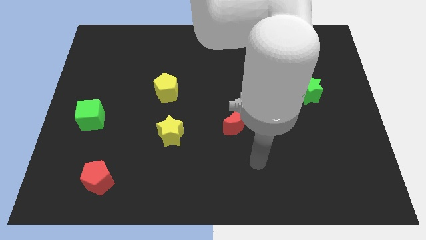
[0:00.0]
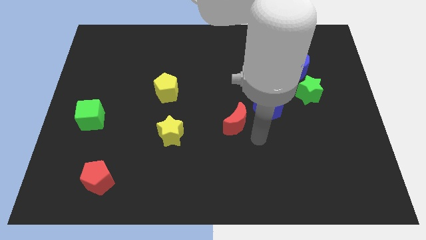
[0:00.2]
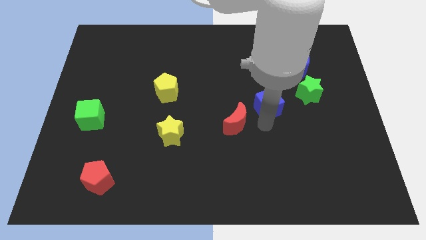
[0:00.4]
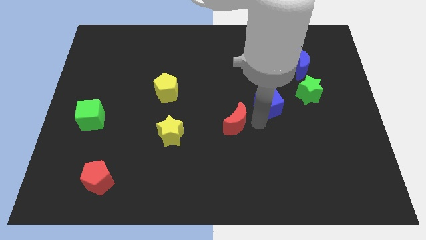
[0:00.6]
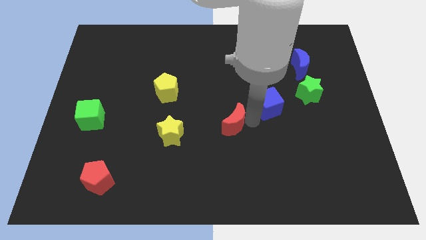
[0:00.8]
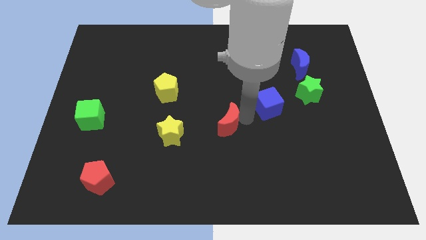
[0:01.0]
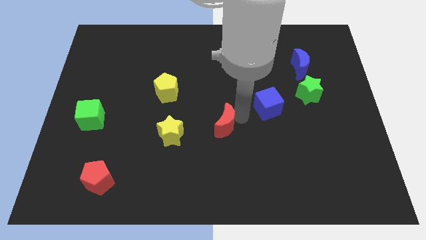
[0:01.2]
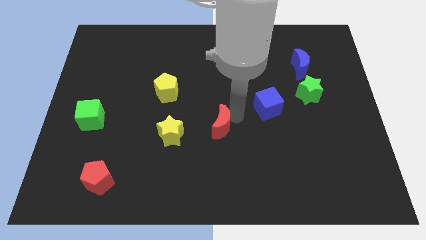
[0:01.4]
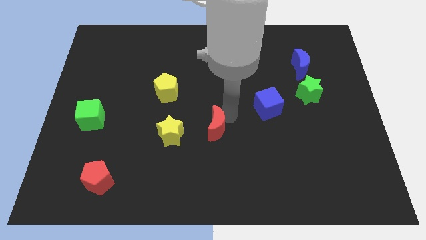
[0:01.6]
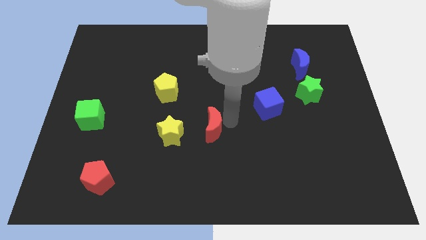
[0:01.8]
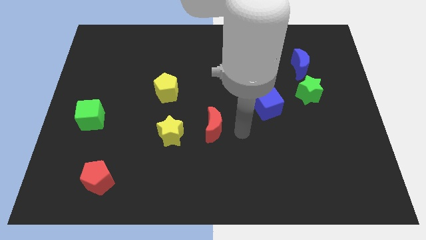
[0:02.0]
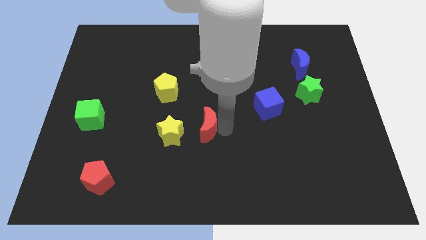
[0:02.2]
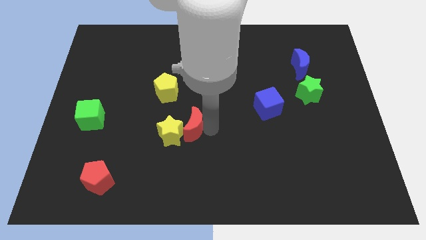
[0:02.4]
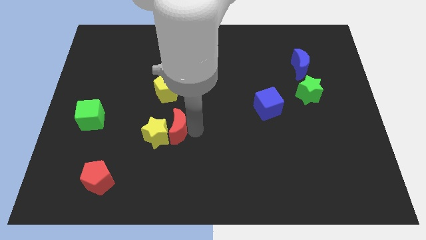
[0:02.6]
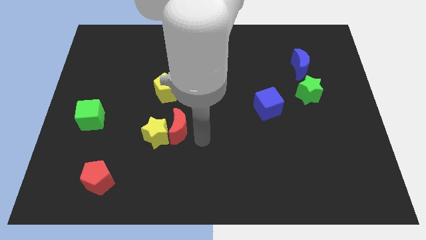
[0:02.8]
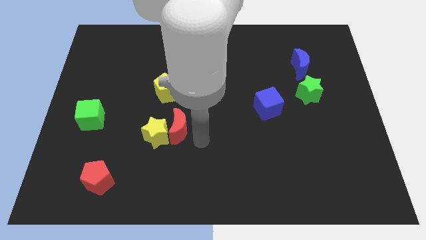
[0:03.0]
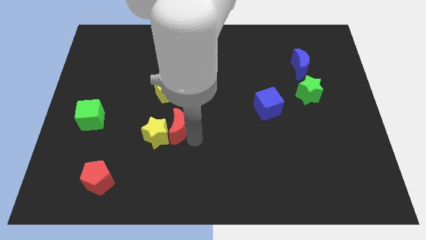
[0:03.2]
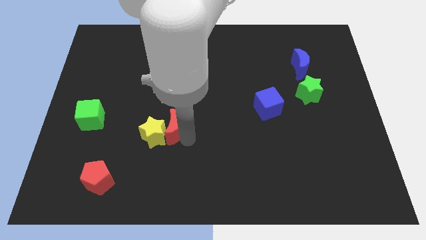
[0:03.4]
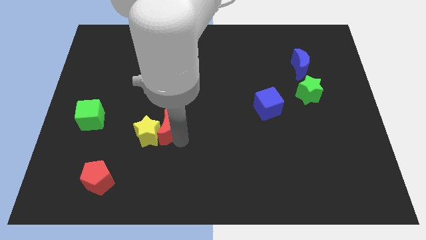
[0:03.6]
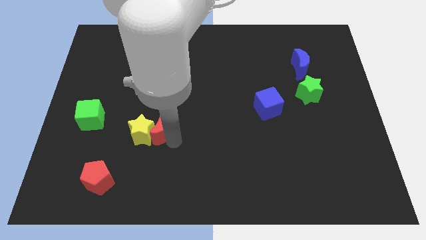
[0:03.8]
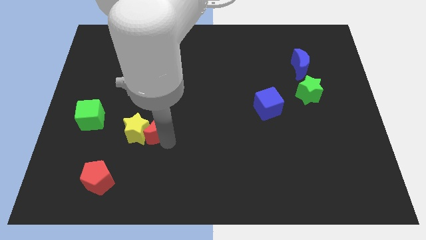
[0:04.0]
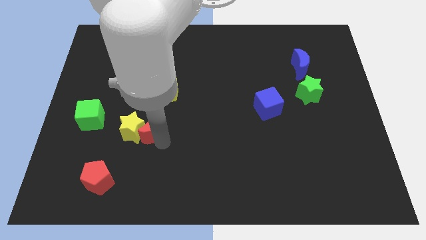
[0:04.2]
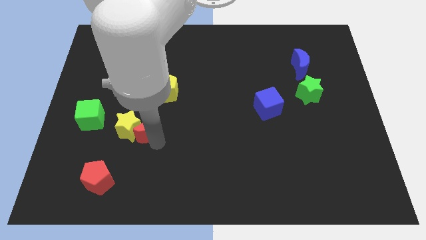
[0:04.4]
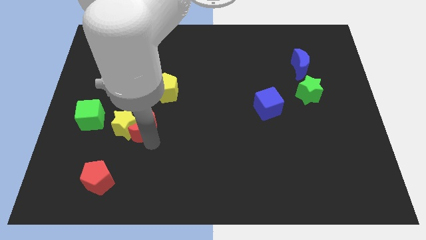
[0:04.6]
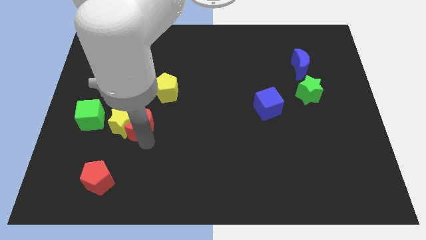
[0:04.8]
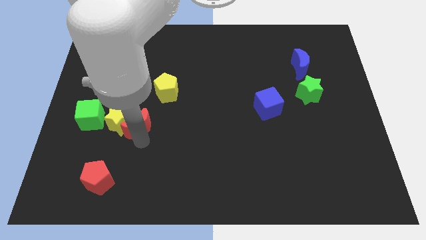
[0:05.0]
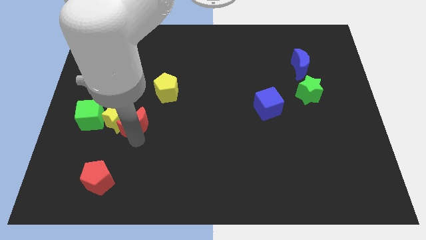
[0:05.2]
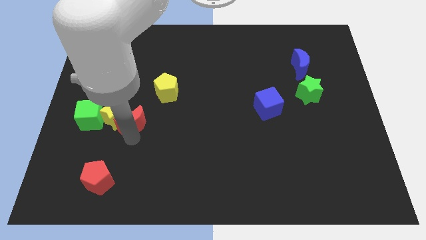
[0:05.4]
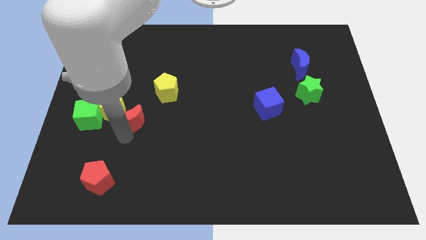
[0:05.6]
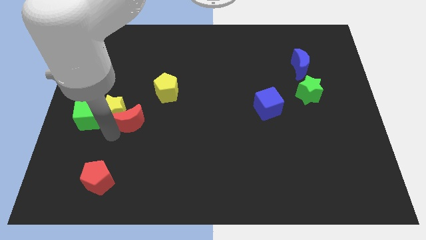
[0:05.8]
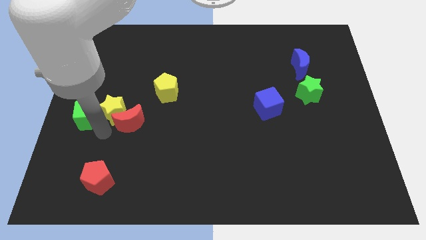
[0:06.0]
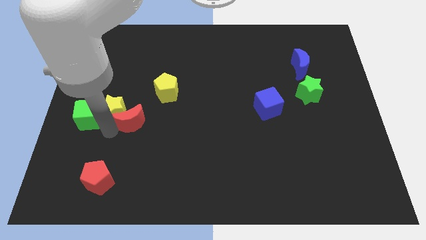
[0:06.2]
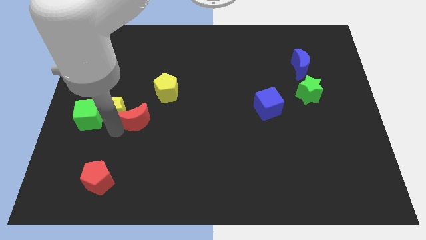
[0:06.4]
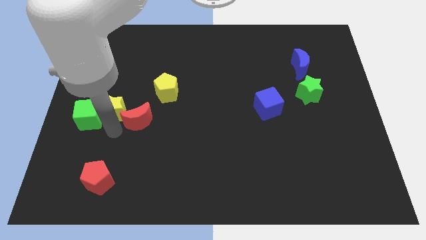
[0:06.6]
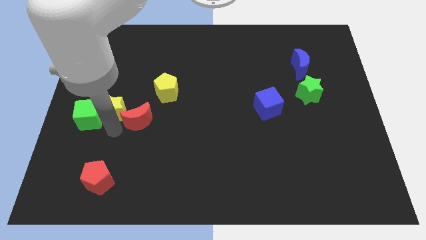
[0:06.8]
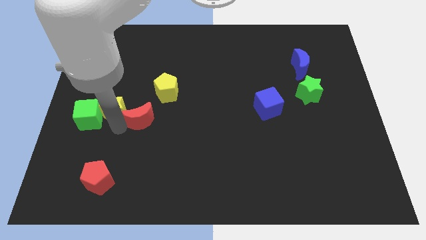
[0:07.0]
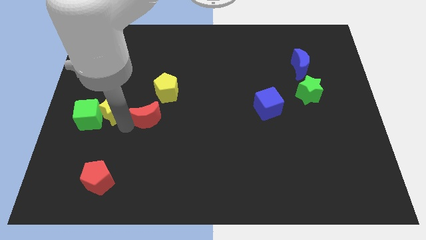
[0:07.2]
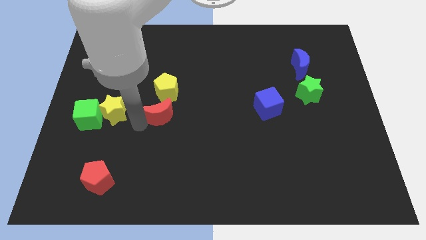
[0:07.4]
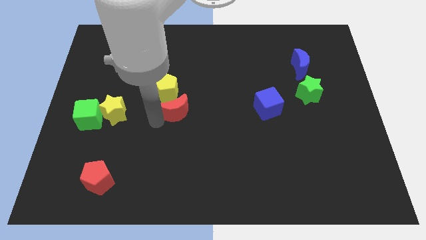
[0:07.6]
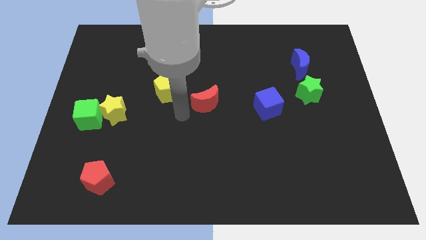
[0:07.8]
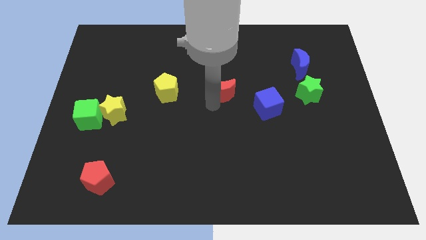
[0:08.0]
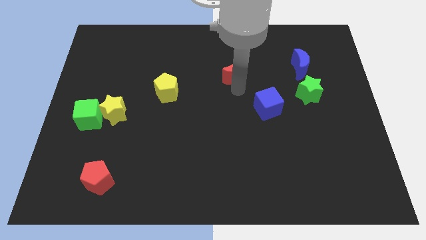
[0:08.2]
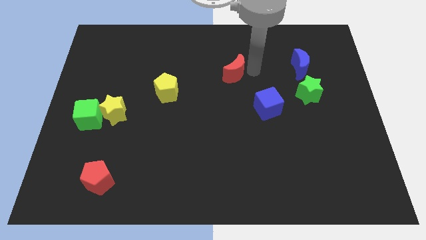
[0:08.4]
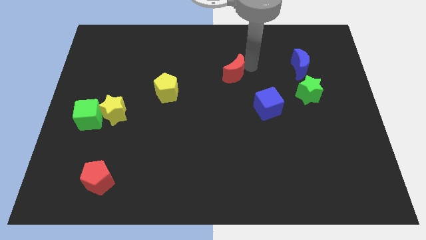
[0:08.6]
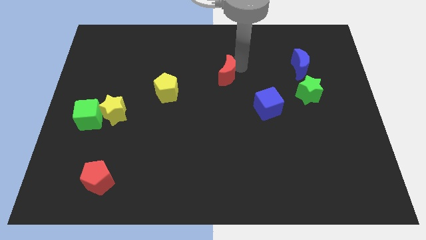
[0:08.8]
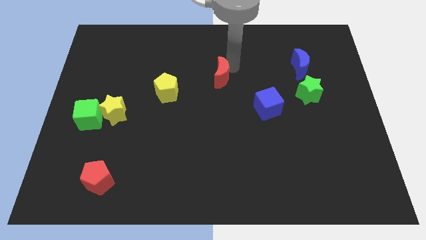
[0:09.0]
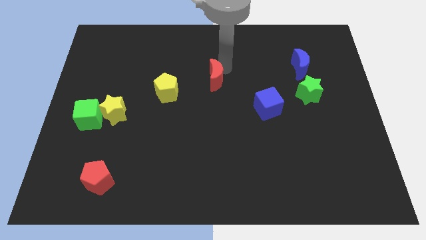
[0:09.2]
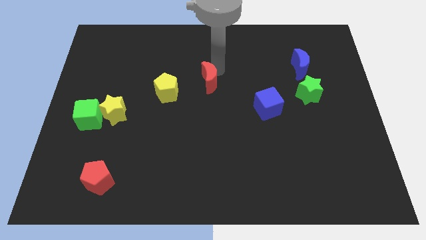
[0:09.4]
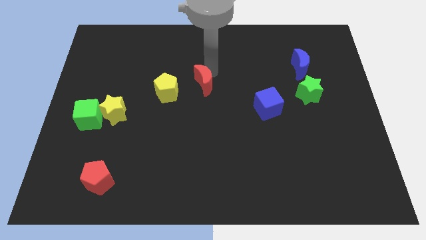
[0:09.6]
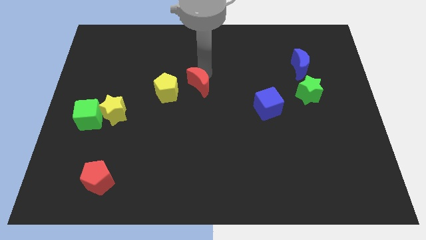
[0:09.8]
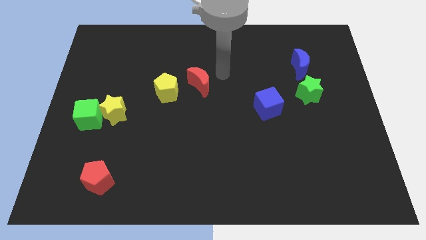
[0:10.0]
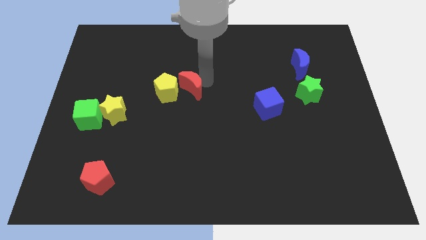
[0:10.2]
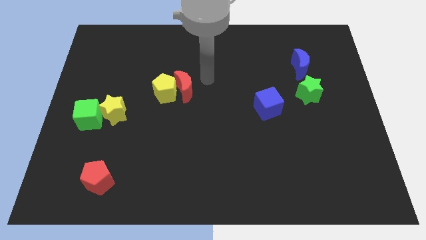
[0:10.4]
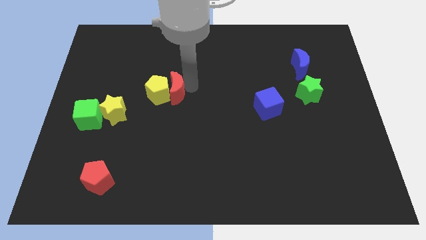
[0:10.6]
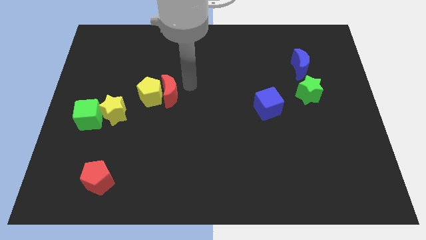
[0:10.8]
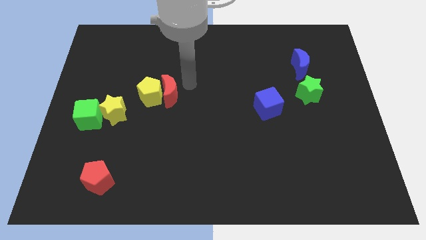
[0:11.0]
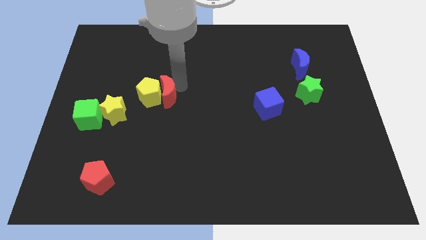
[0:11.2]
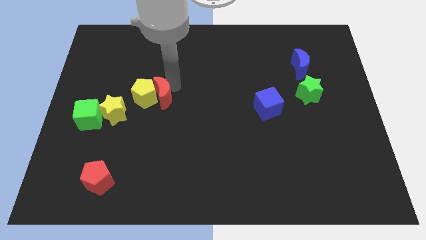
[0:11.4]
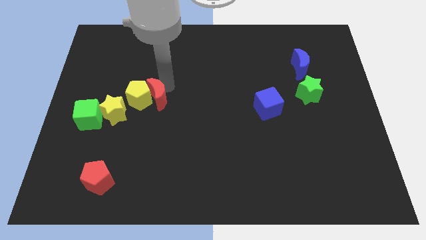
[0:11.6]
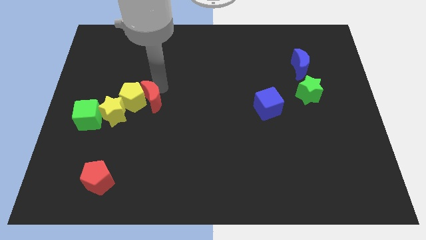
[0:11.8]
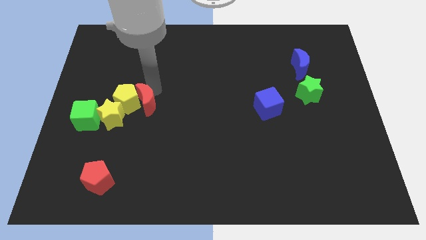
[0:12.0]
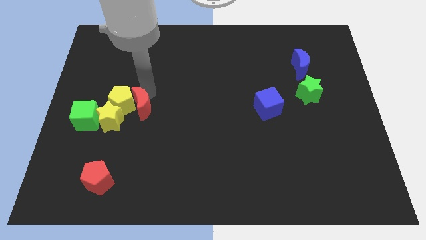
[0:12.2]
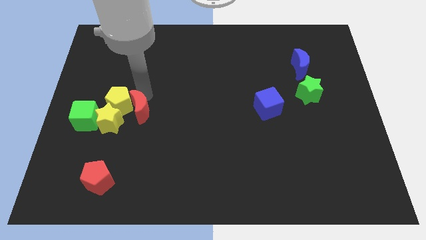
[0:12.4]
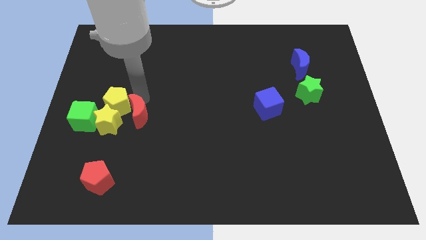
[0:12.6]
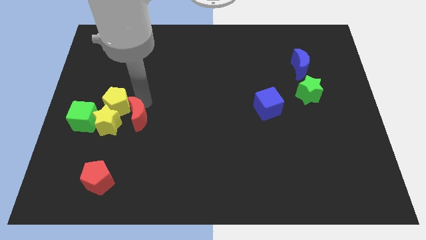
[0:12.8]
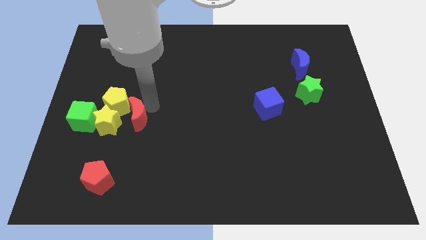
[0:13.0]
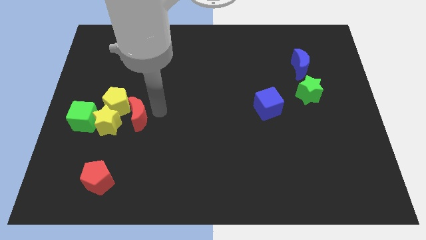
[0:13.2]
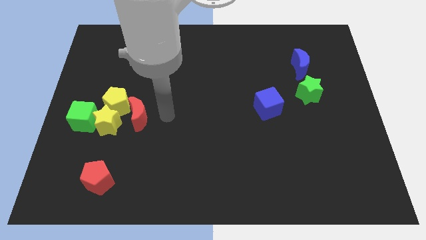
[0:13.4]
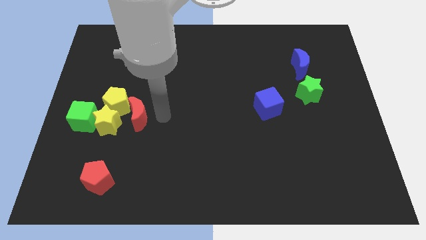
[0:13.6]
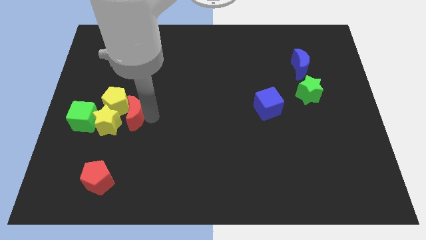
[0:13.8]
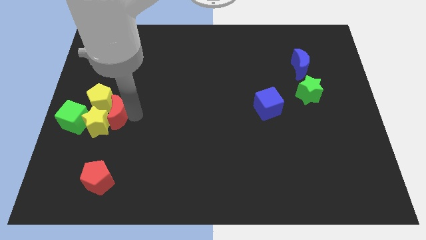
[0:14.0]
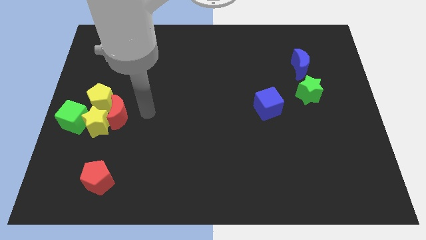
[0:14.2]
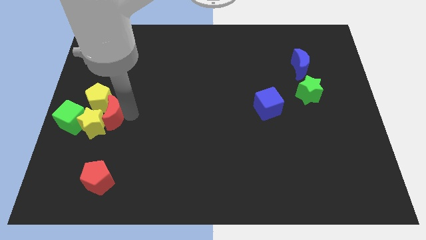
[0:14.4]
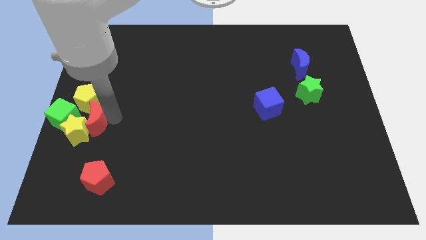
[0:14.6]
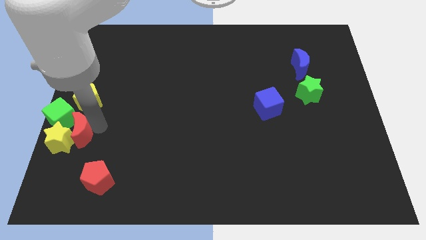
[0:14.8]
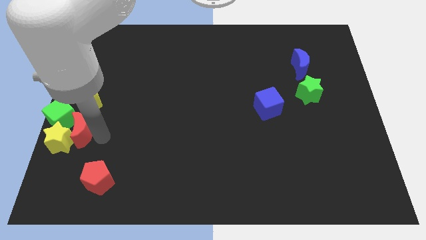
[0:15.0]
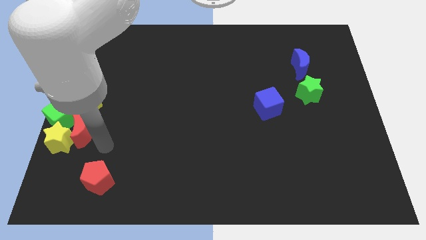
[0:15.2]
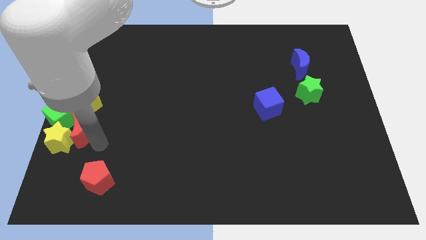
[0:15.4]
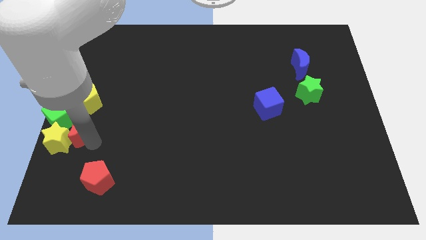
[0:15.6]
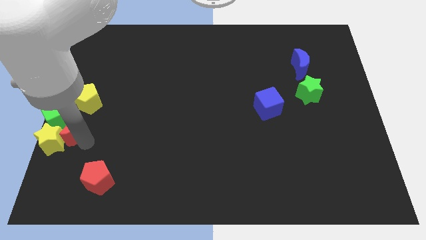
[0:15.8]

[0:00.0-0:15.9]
slide the red moon close to the green cube
